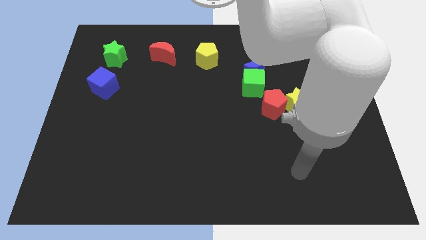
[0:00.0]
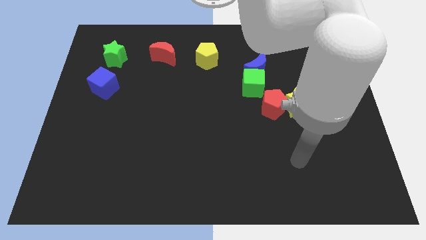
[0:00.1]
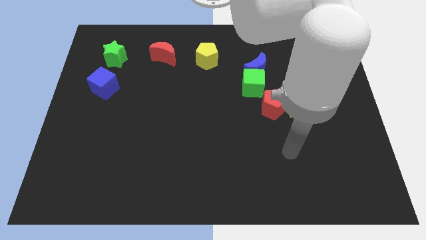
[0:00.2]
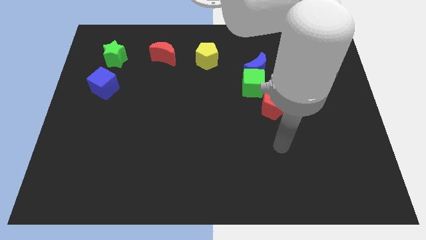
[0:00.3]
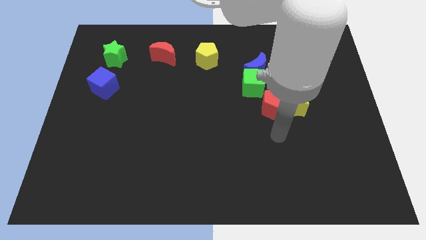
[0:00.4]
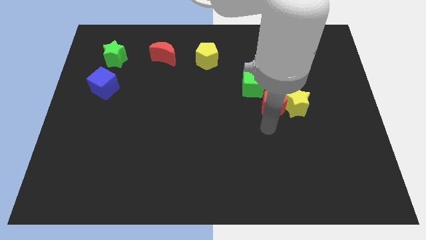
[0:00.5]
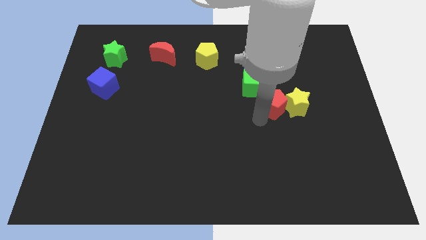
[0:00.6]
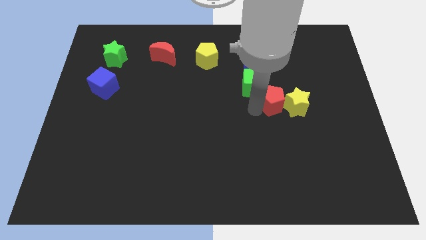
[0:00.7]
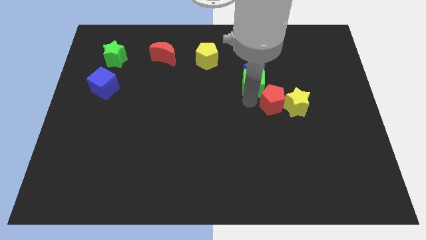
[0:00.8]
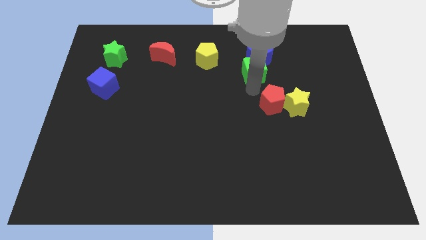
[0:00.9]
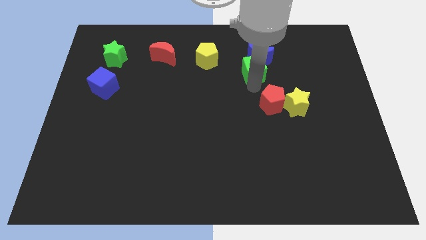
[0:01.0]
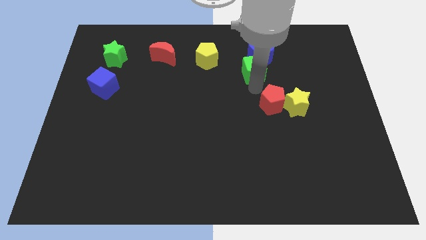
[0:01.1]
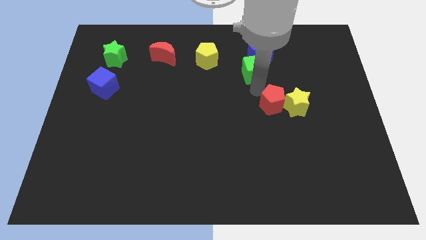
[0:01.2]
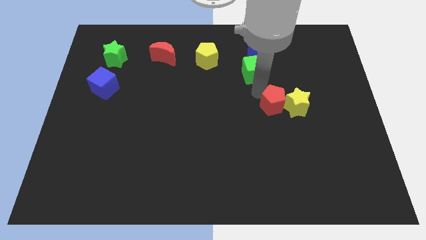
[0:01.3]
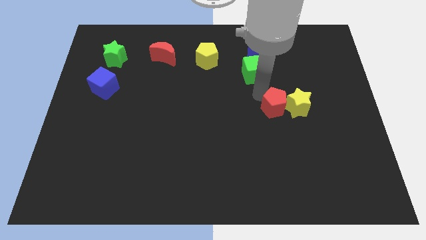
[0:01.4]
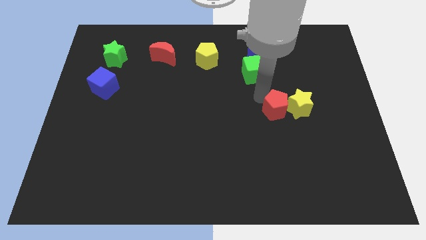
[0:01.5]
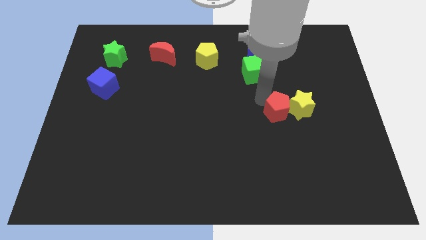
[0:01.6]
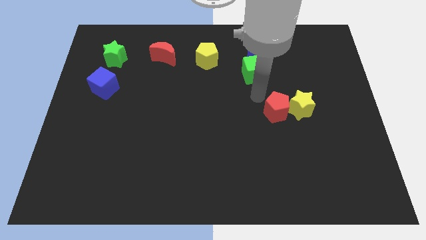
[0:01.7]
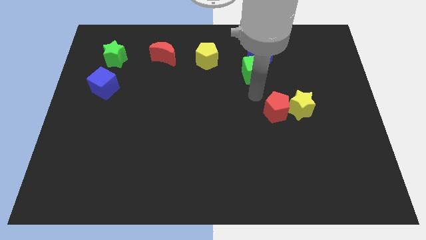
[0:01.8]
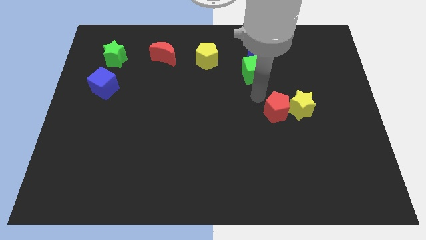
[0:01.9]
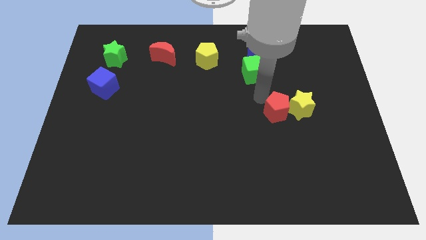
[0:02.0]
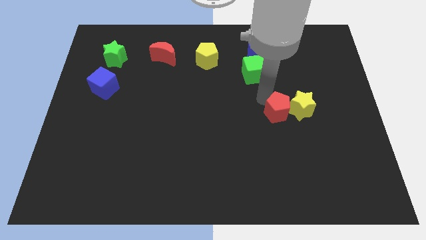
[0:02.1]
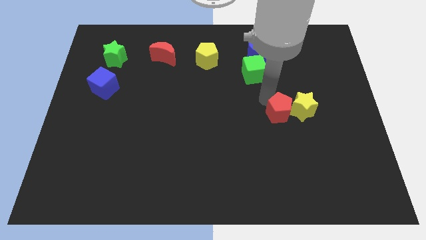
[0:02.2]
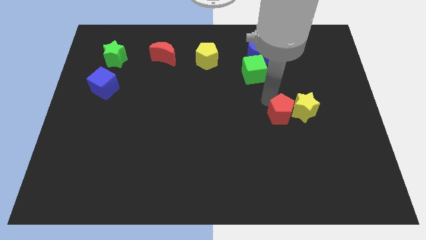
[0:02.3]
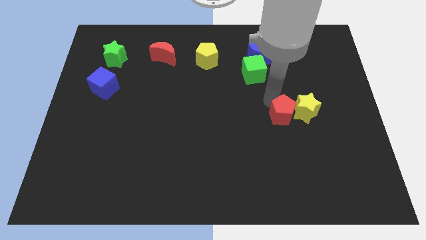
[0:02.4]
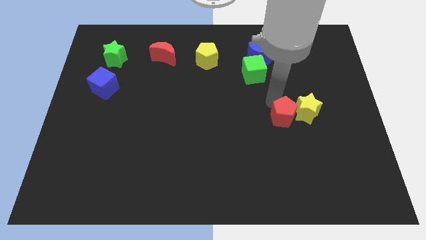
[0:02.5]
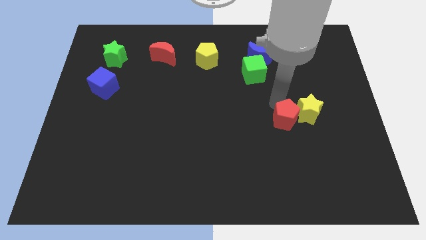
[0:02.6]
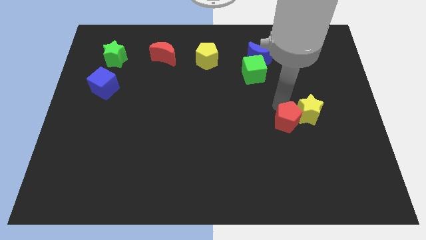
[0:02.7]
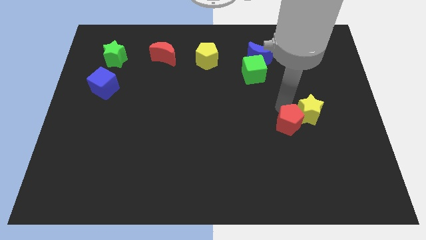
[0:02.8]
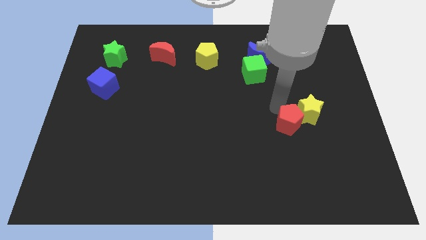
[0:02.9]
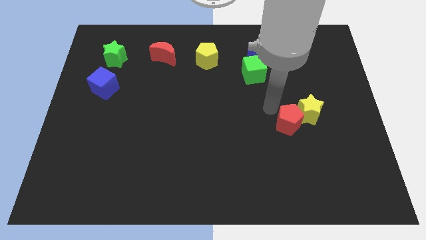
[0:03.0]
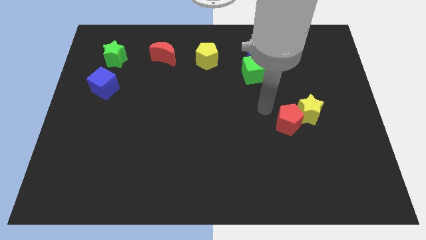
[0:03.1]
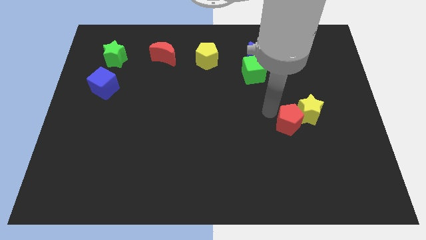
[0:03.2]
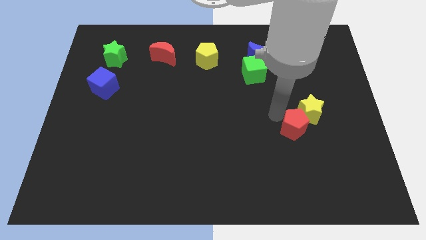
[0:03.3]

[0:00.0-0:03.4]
push the red pentagon downwards and to the right diagonally a little bit

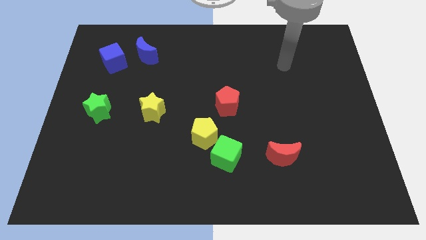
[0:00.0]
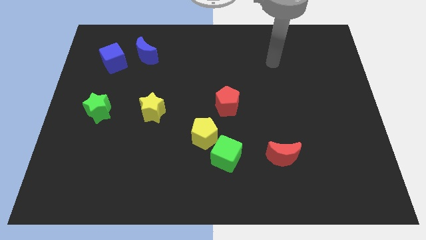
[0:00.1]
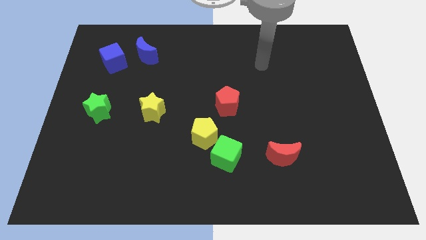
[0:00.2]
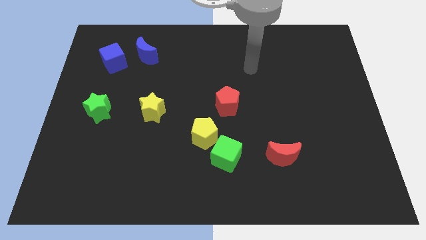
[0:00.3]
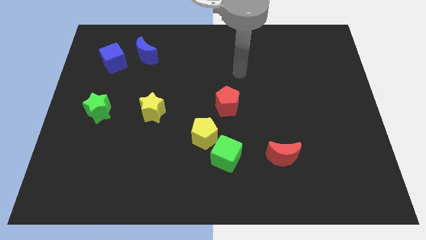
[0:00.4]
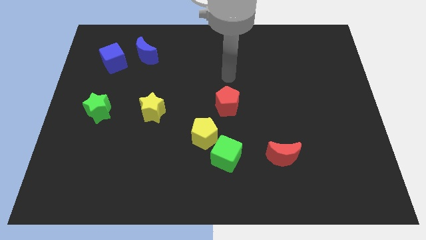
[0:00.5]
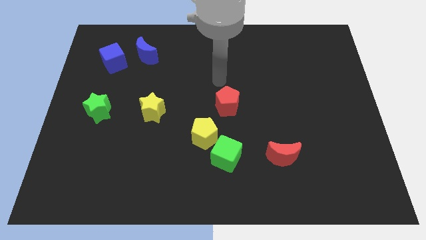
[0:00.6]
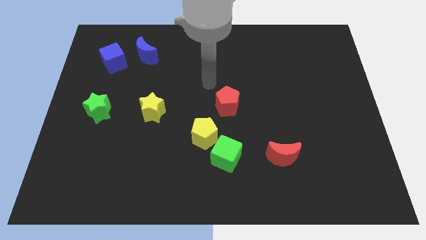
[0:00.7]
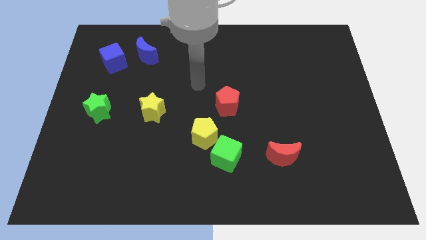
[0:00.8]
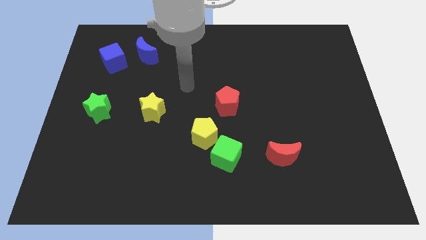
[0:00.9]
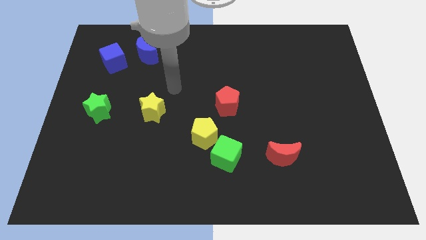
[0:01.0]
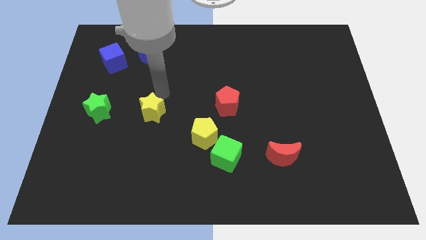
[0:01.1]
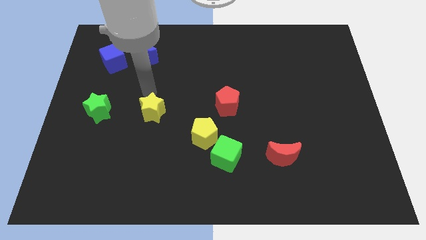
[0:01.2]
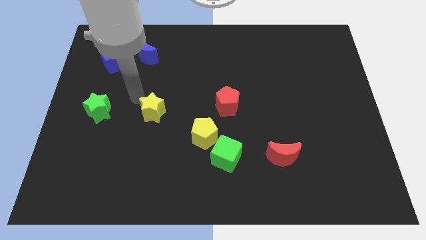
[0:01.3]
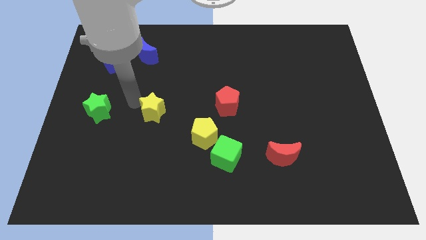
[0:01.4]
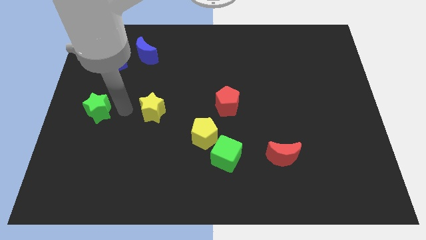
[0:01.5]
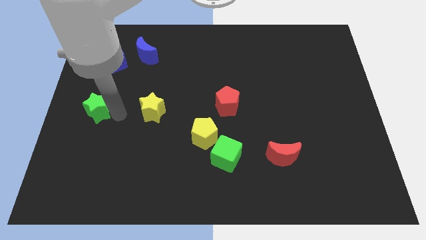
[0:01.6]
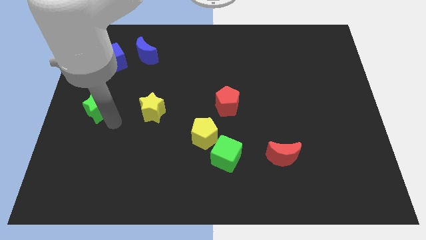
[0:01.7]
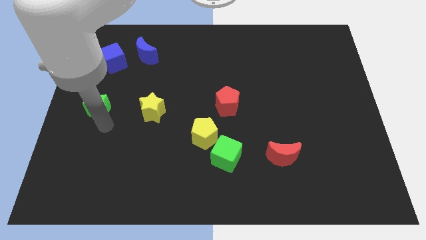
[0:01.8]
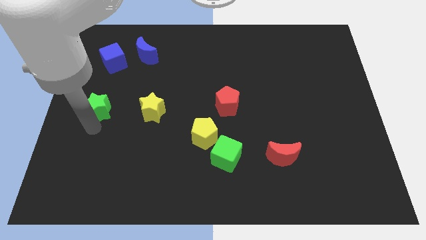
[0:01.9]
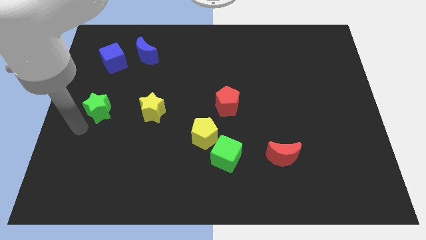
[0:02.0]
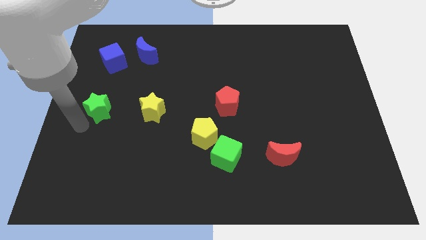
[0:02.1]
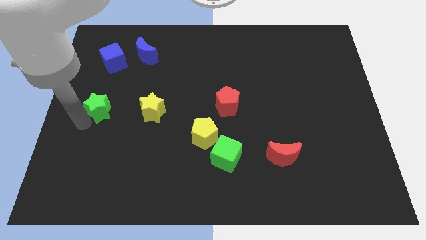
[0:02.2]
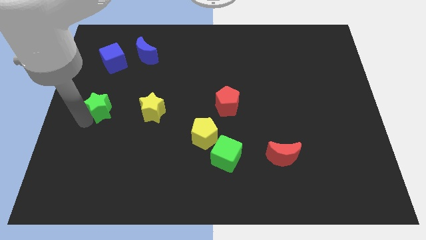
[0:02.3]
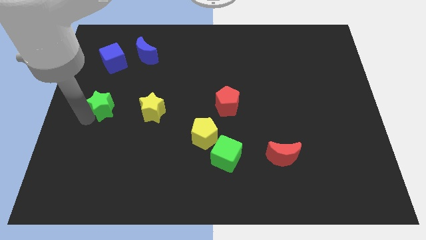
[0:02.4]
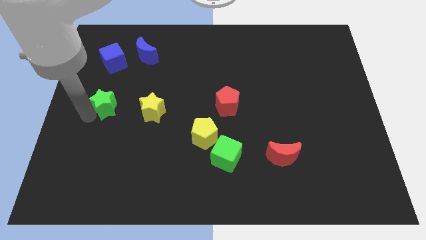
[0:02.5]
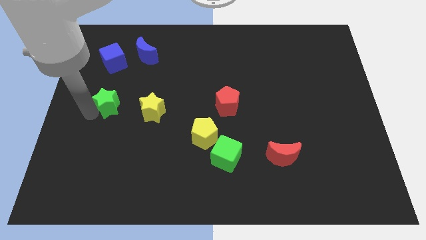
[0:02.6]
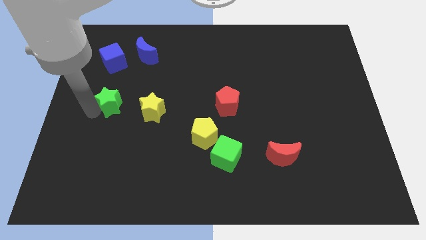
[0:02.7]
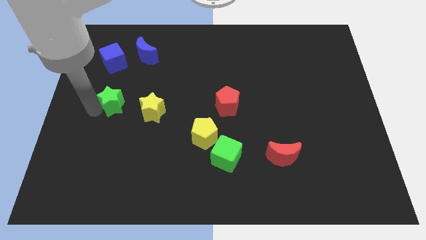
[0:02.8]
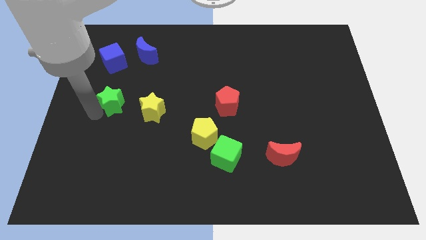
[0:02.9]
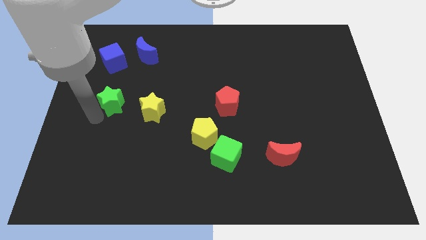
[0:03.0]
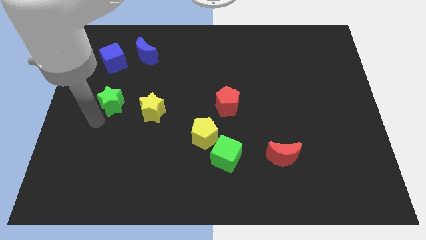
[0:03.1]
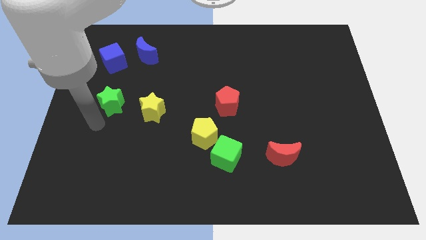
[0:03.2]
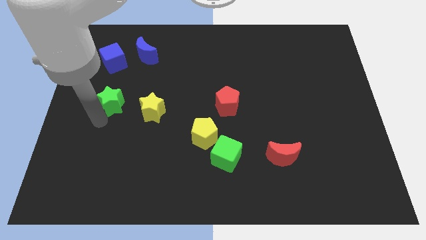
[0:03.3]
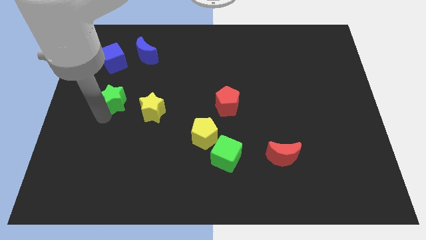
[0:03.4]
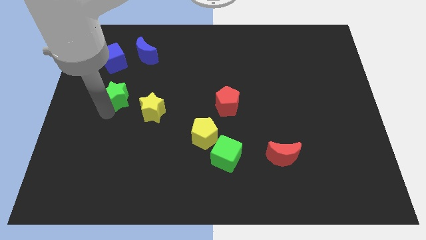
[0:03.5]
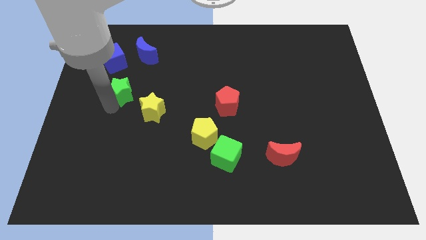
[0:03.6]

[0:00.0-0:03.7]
slightly push the green star up and then right

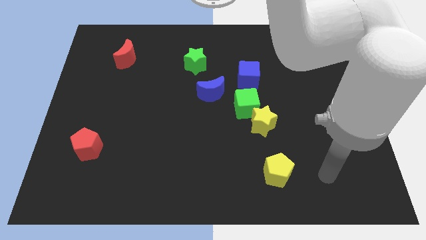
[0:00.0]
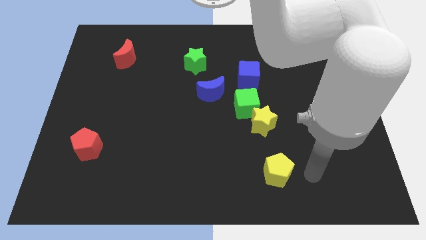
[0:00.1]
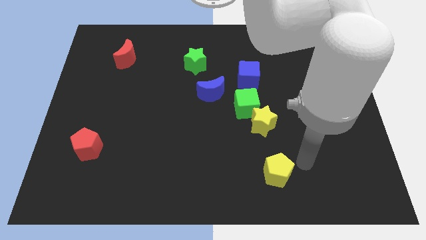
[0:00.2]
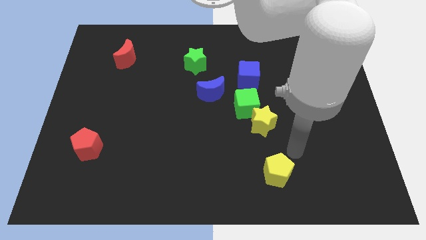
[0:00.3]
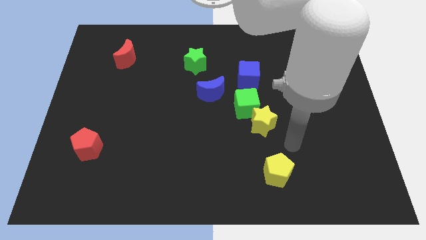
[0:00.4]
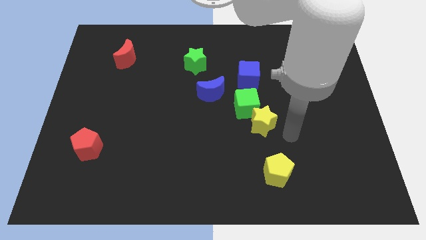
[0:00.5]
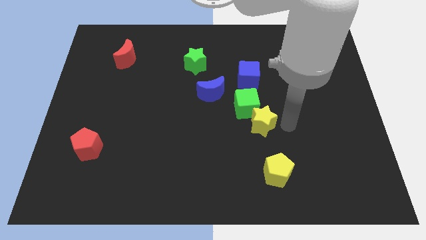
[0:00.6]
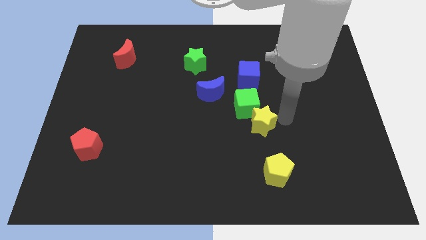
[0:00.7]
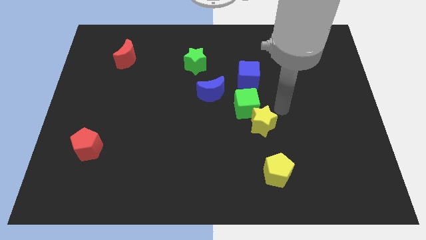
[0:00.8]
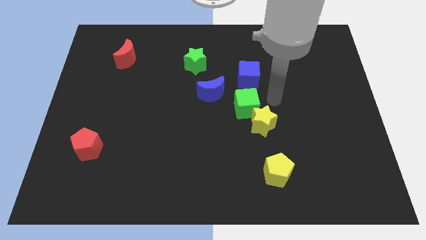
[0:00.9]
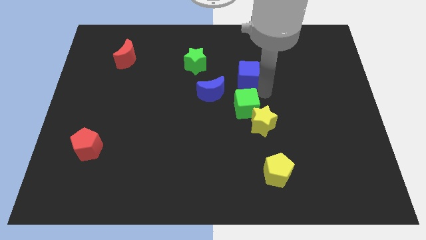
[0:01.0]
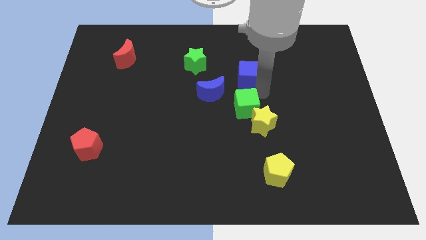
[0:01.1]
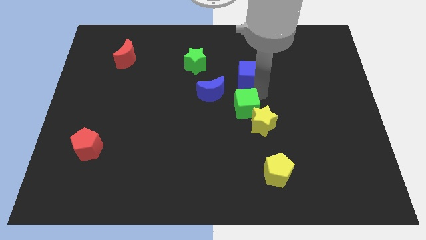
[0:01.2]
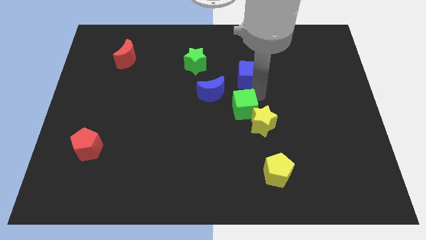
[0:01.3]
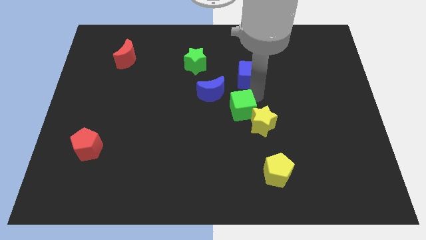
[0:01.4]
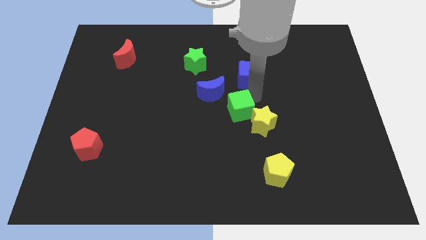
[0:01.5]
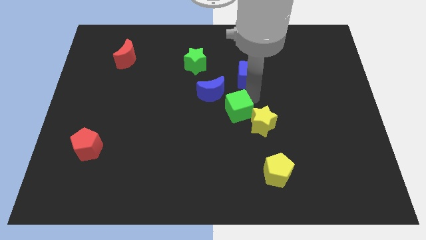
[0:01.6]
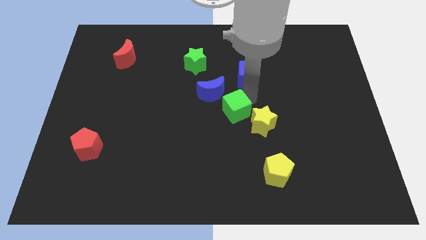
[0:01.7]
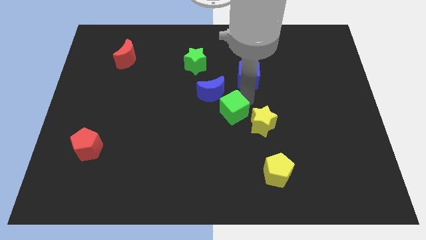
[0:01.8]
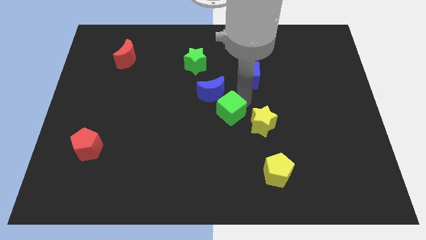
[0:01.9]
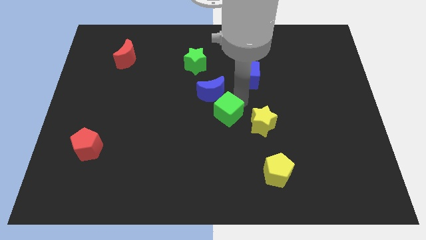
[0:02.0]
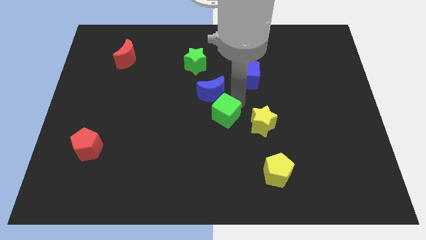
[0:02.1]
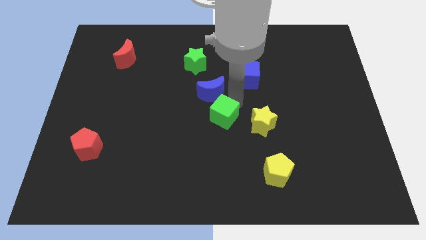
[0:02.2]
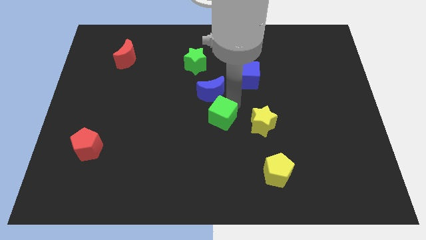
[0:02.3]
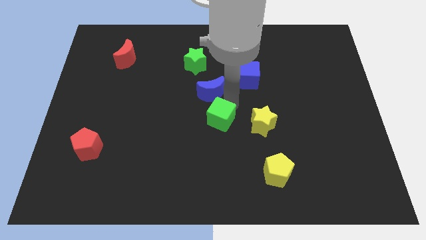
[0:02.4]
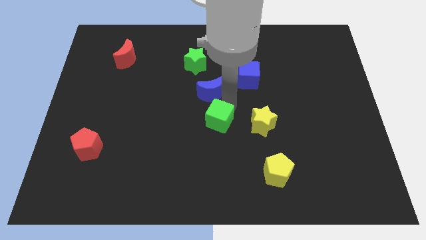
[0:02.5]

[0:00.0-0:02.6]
slightly push the green cube down and then left
